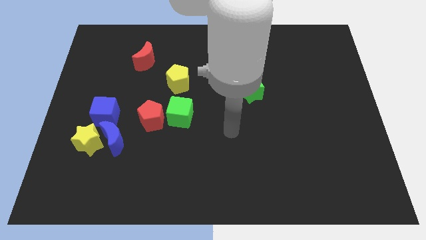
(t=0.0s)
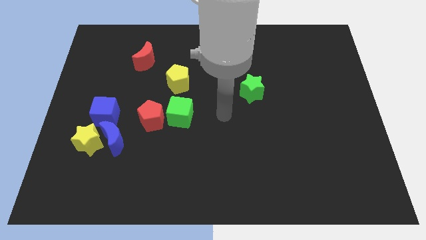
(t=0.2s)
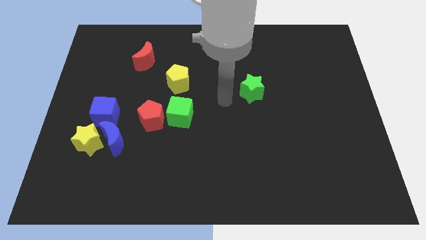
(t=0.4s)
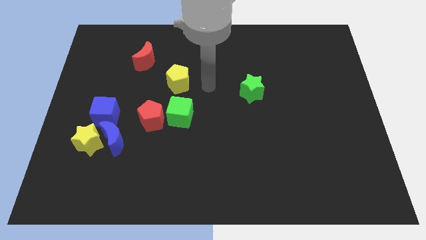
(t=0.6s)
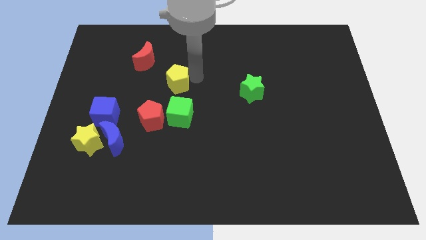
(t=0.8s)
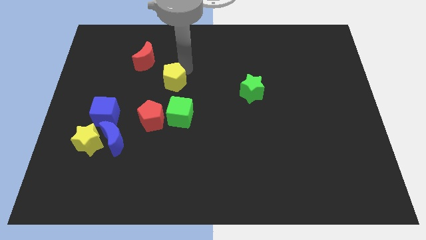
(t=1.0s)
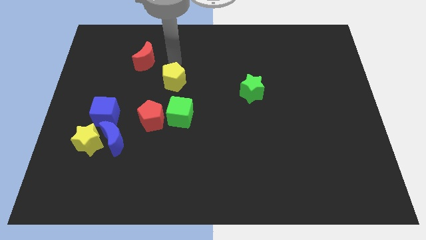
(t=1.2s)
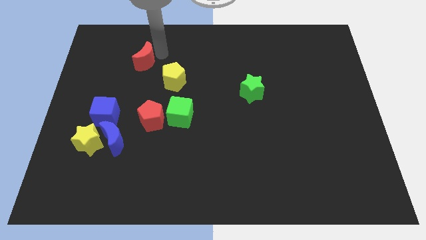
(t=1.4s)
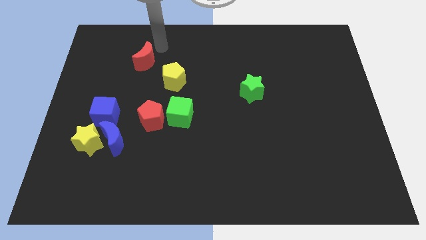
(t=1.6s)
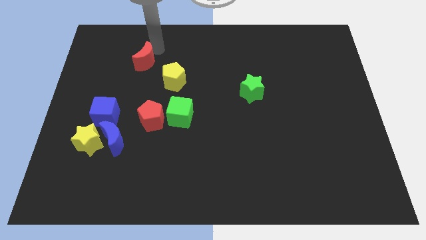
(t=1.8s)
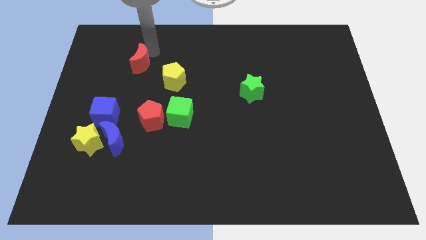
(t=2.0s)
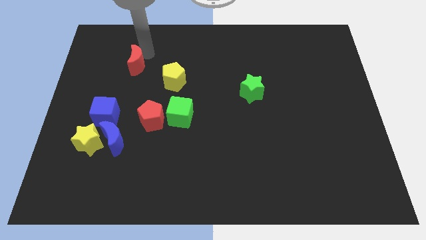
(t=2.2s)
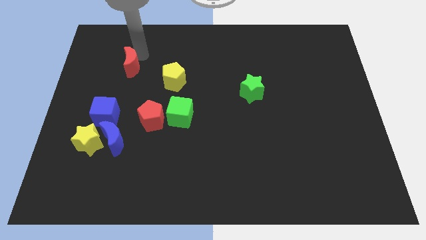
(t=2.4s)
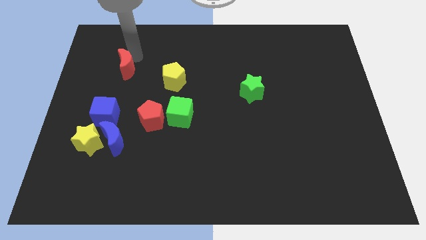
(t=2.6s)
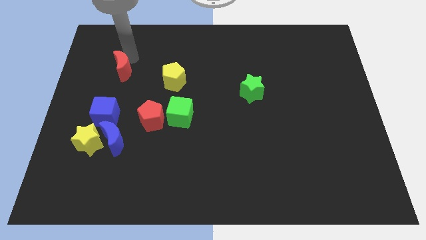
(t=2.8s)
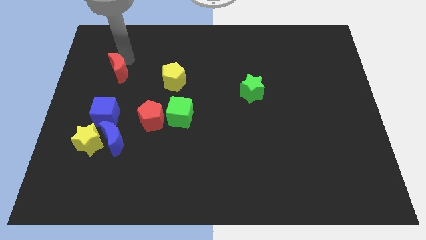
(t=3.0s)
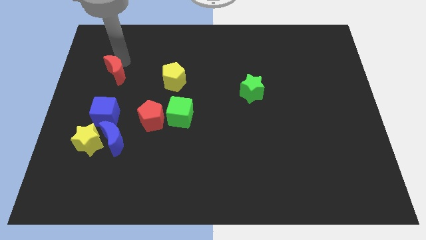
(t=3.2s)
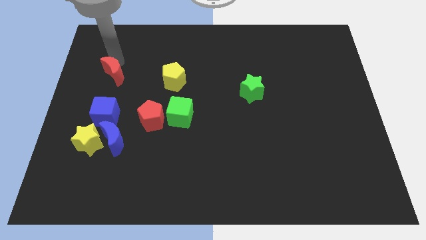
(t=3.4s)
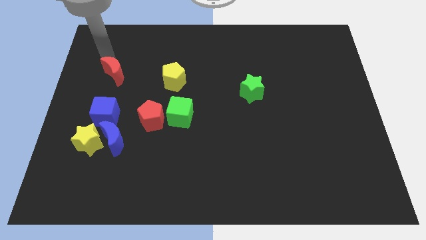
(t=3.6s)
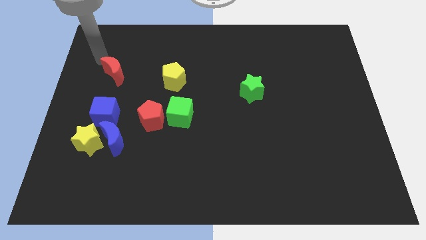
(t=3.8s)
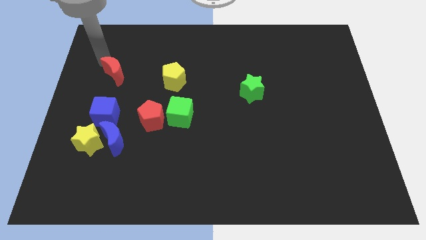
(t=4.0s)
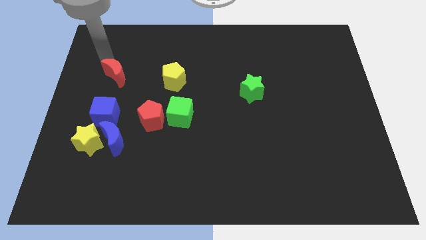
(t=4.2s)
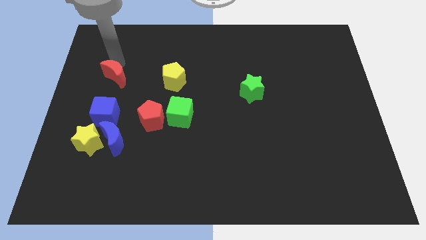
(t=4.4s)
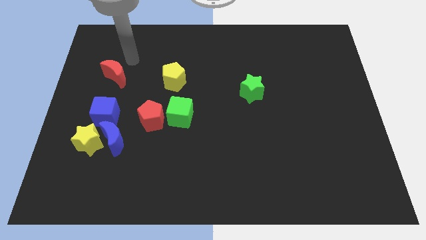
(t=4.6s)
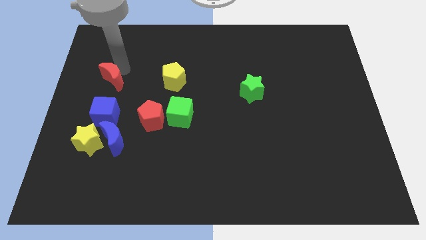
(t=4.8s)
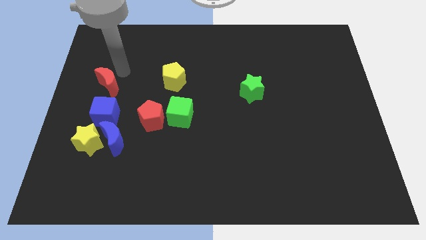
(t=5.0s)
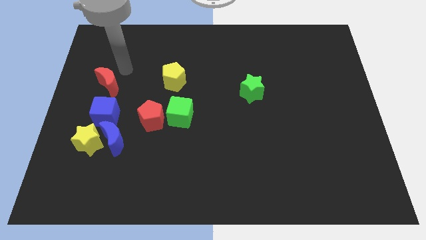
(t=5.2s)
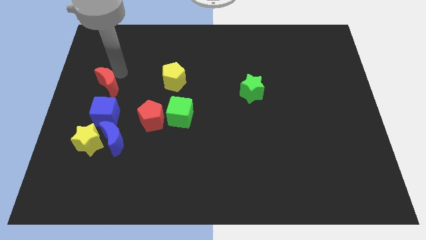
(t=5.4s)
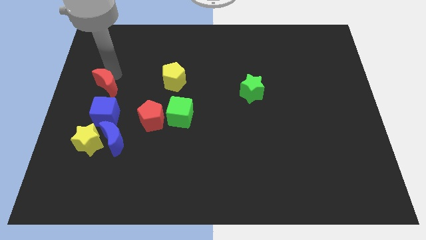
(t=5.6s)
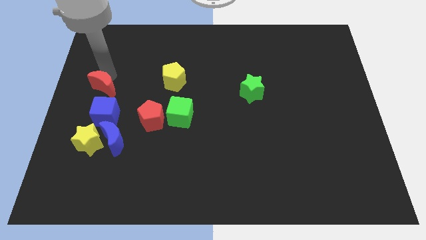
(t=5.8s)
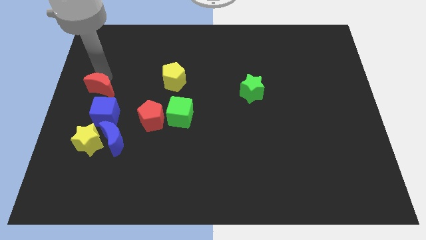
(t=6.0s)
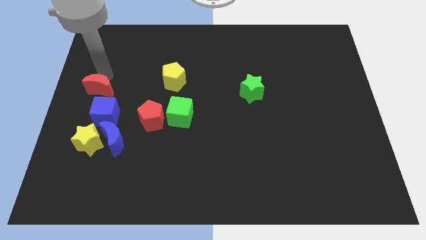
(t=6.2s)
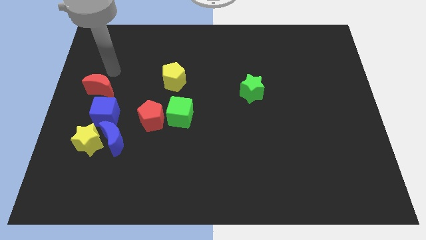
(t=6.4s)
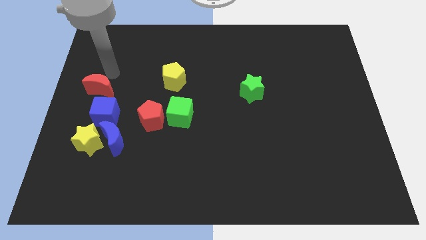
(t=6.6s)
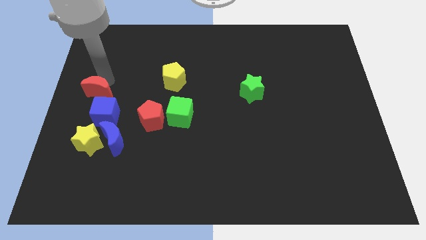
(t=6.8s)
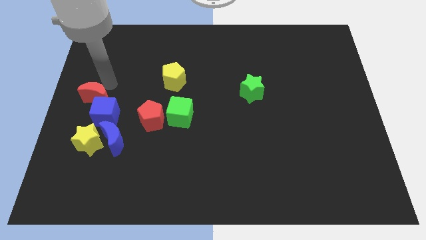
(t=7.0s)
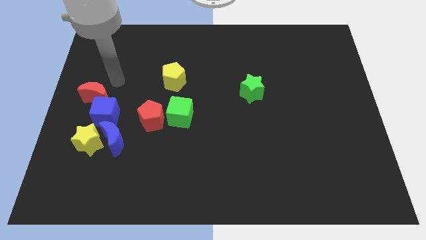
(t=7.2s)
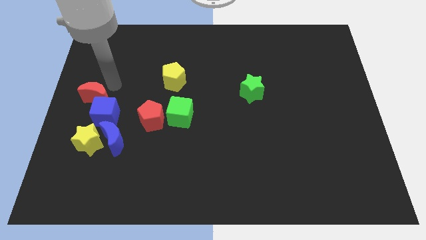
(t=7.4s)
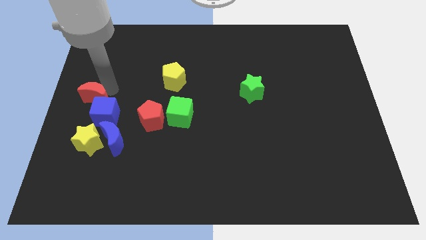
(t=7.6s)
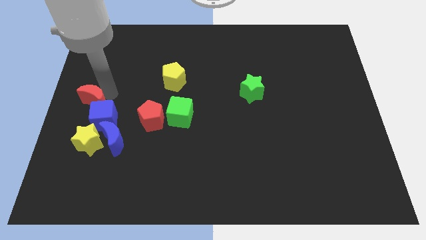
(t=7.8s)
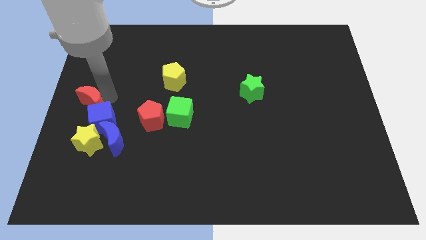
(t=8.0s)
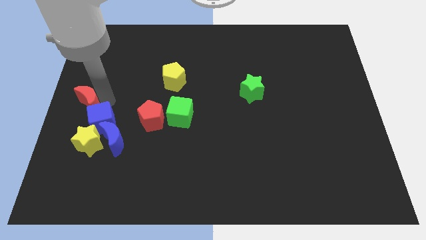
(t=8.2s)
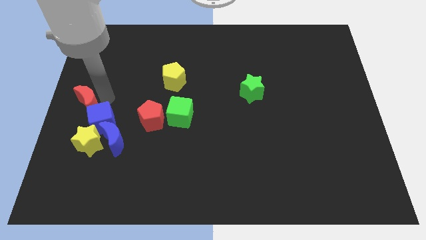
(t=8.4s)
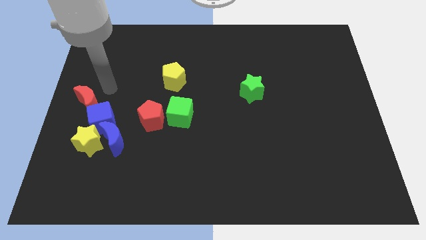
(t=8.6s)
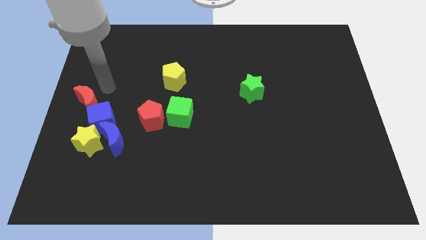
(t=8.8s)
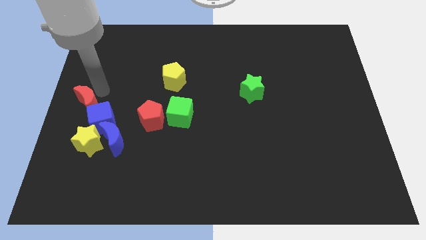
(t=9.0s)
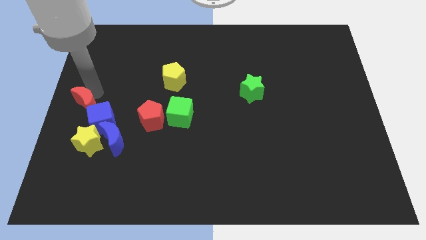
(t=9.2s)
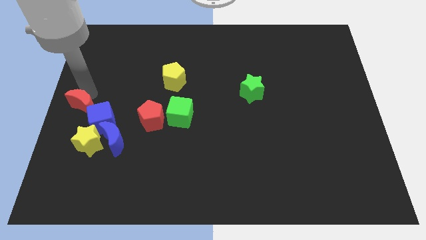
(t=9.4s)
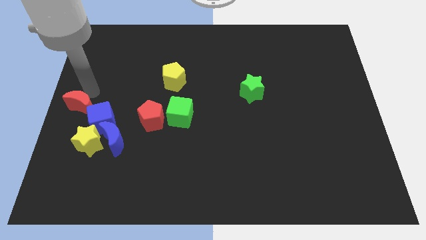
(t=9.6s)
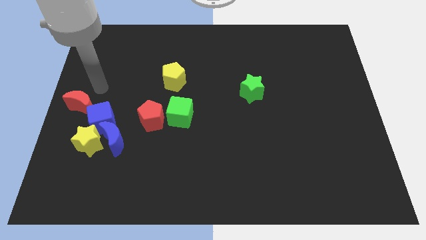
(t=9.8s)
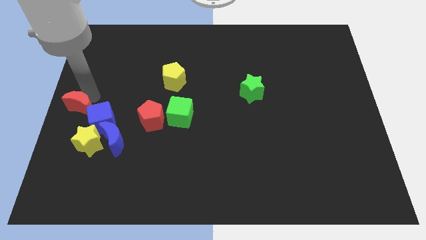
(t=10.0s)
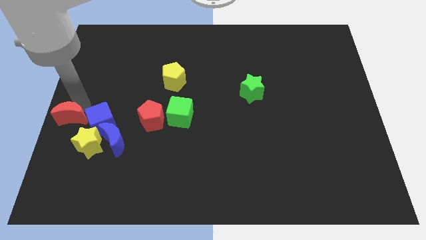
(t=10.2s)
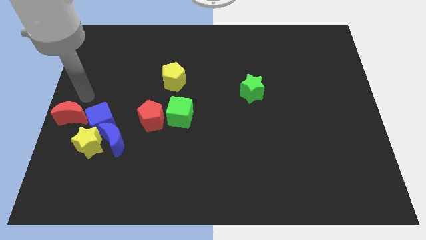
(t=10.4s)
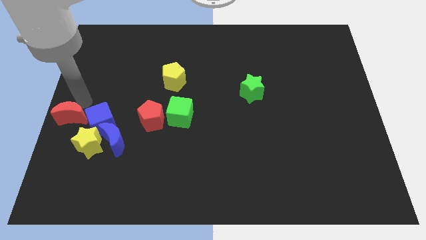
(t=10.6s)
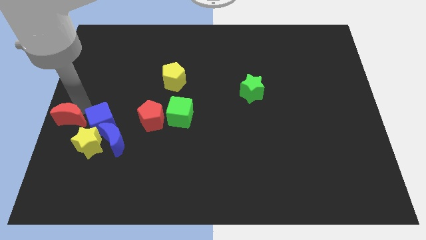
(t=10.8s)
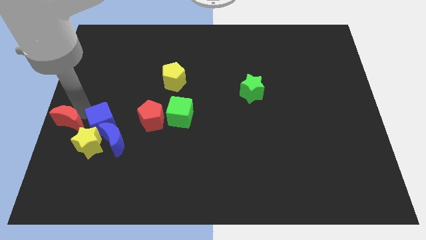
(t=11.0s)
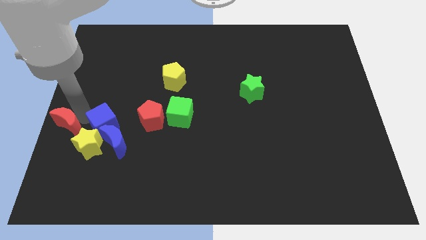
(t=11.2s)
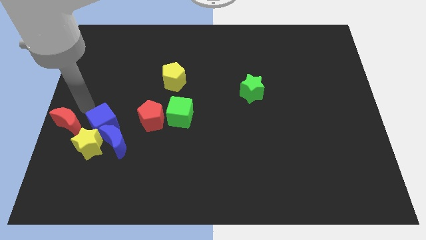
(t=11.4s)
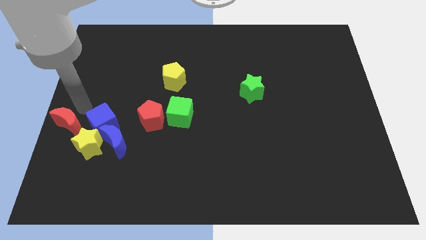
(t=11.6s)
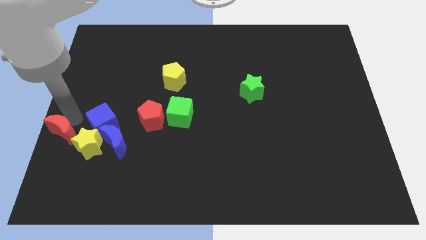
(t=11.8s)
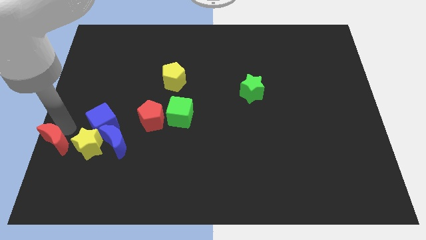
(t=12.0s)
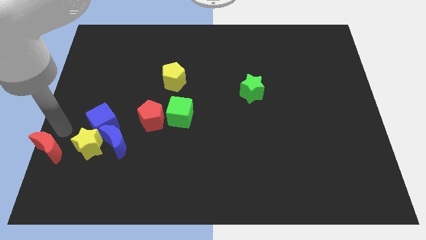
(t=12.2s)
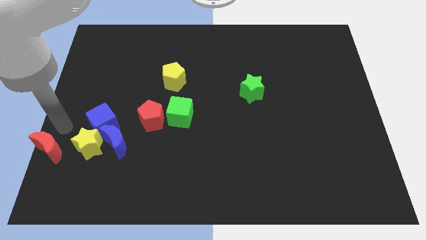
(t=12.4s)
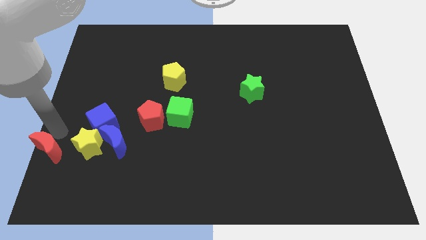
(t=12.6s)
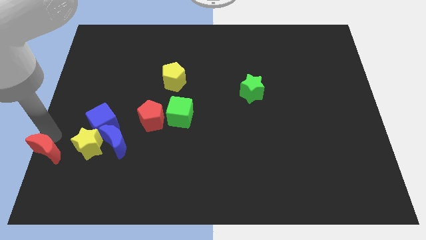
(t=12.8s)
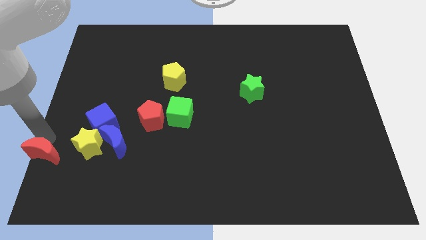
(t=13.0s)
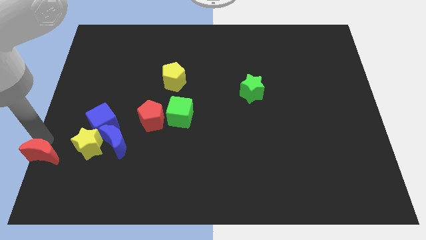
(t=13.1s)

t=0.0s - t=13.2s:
move the red moon to the bottom left of the board
